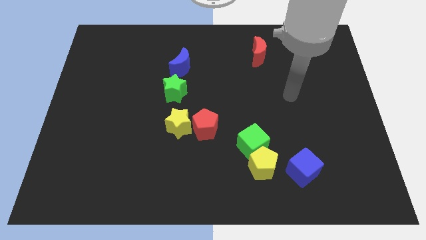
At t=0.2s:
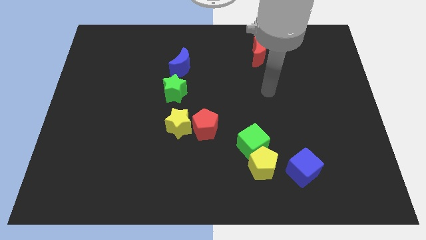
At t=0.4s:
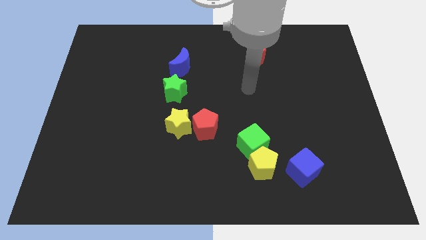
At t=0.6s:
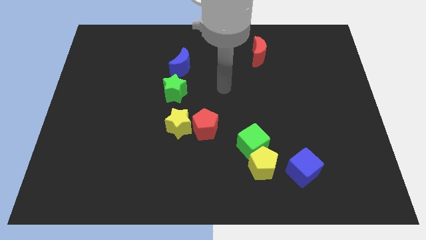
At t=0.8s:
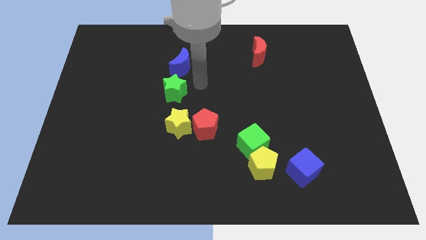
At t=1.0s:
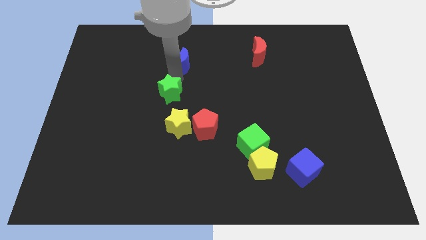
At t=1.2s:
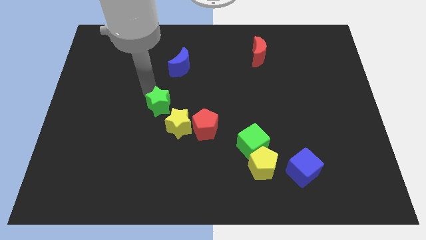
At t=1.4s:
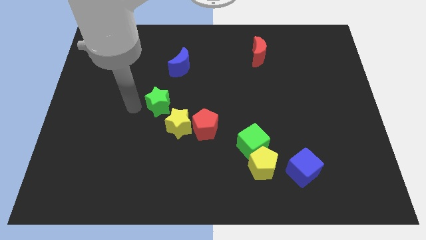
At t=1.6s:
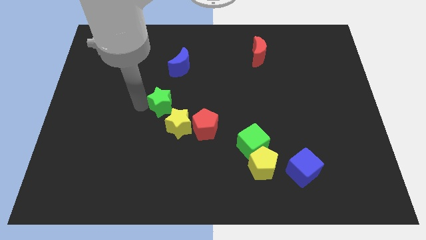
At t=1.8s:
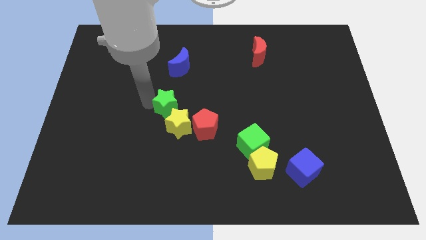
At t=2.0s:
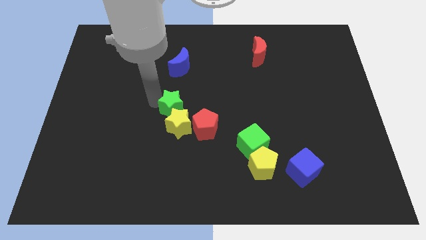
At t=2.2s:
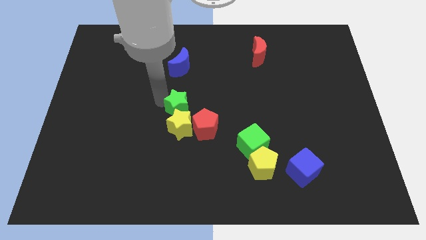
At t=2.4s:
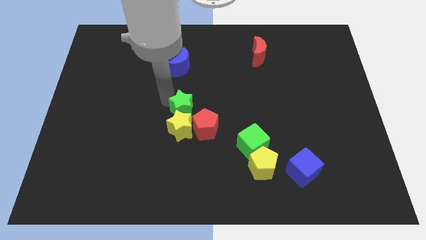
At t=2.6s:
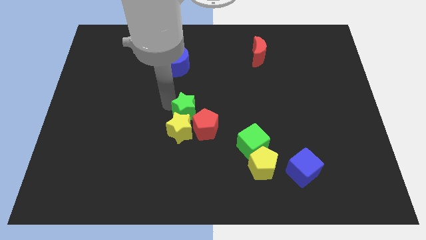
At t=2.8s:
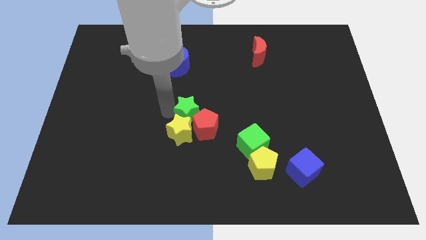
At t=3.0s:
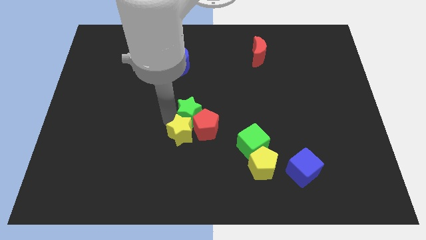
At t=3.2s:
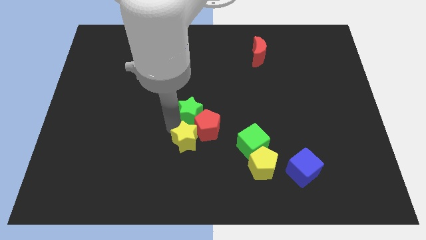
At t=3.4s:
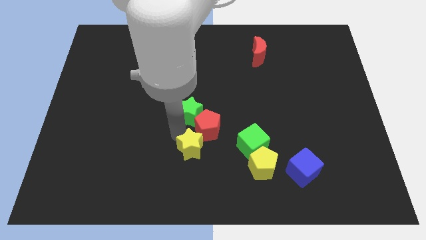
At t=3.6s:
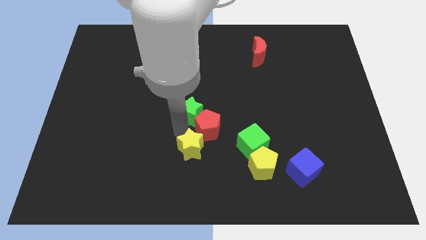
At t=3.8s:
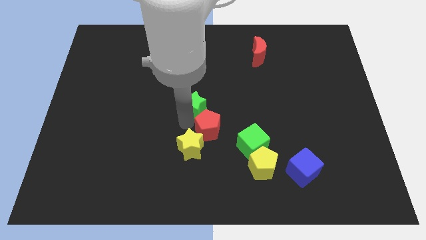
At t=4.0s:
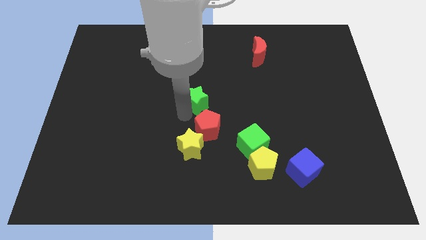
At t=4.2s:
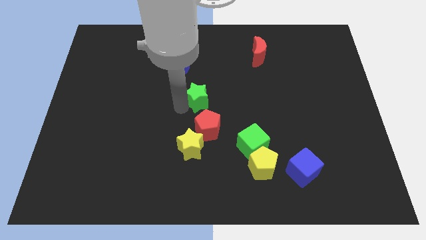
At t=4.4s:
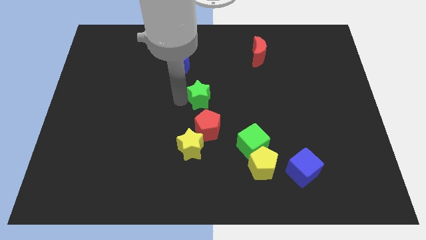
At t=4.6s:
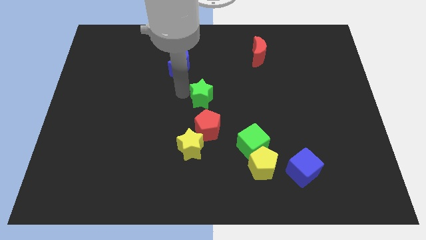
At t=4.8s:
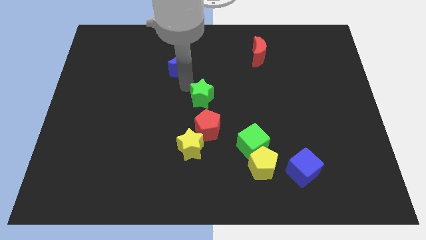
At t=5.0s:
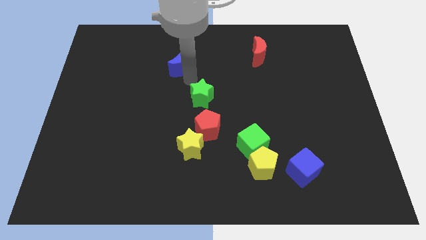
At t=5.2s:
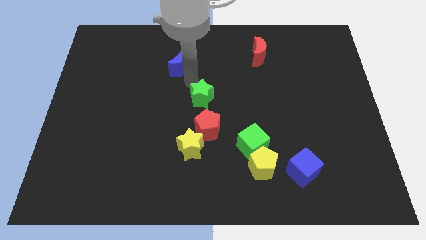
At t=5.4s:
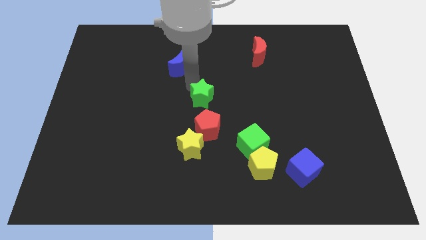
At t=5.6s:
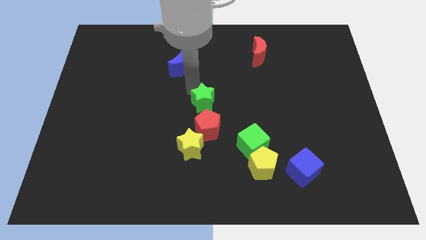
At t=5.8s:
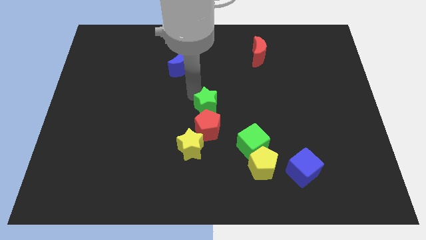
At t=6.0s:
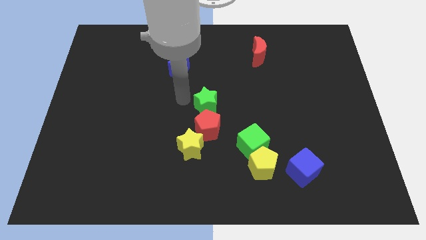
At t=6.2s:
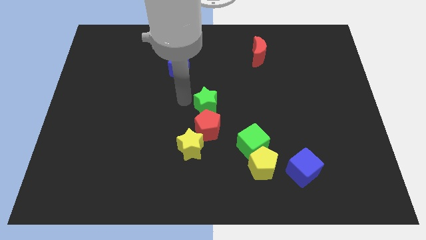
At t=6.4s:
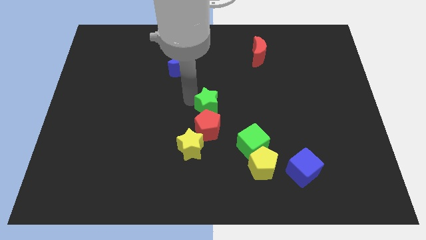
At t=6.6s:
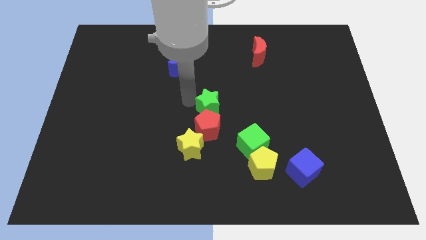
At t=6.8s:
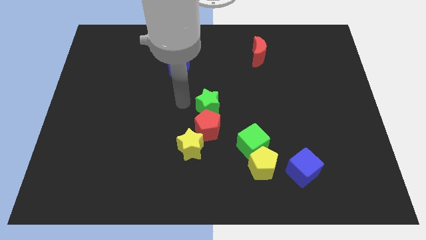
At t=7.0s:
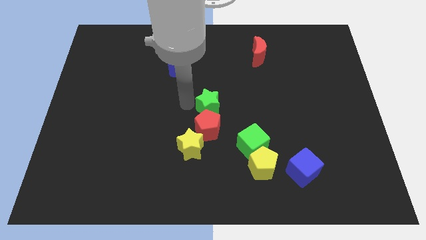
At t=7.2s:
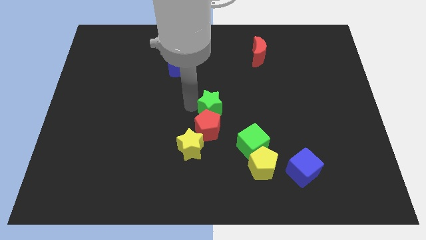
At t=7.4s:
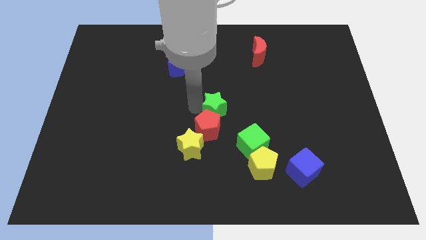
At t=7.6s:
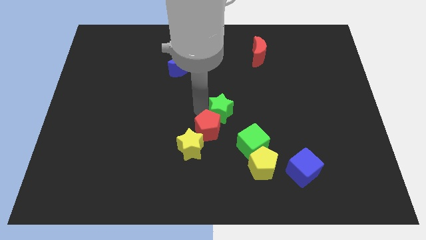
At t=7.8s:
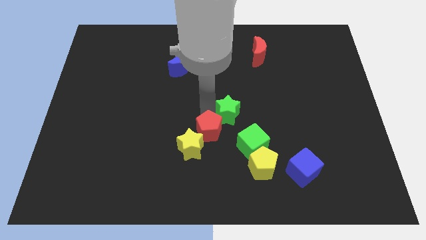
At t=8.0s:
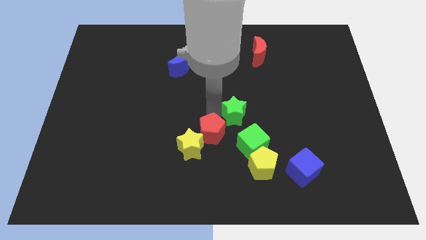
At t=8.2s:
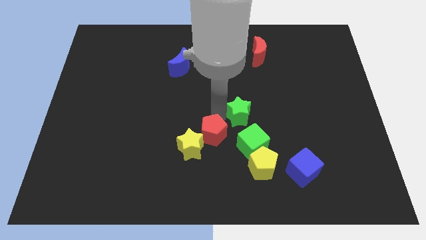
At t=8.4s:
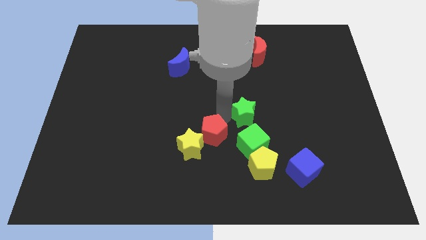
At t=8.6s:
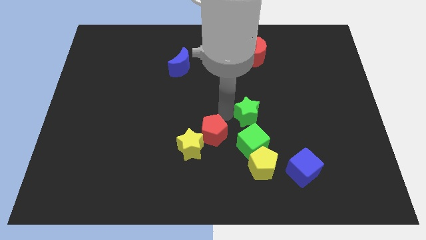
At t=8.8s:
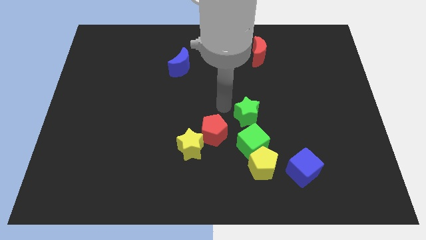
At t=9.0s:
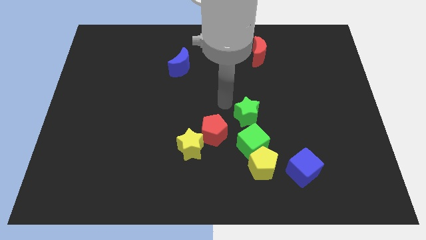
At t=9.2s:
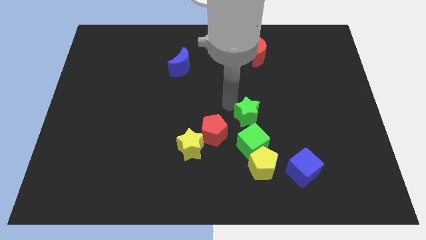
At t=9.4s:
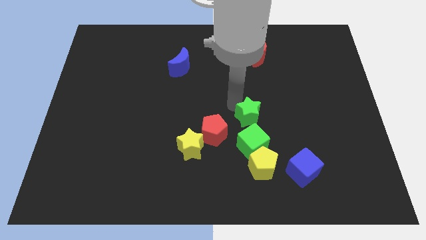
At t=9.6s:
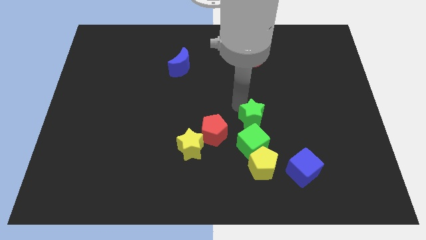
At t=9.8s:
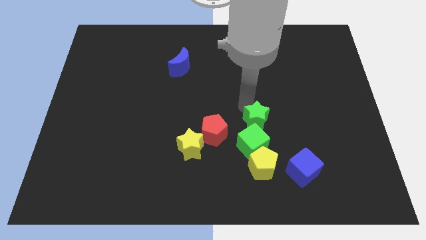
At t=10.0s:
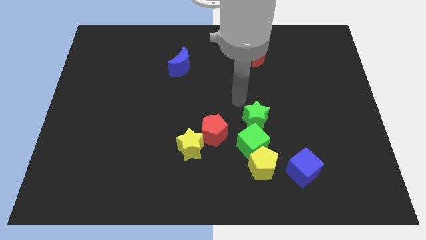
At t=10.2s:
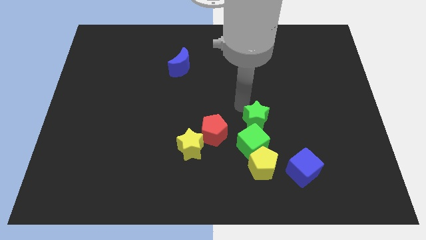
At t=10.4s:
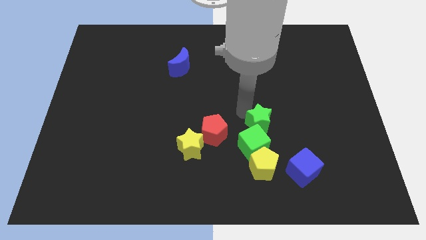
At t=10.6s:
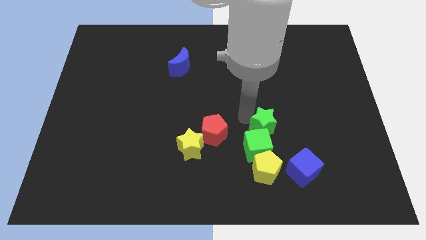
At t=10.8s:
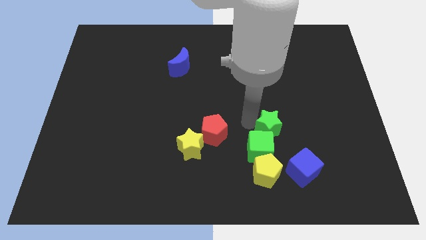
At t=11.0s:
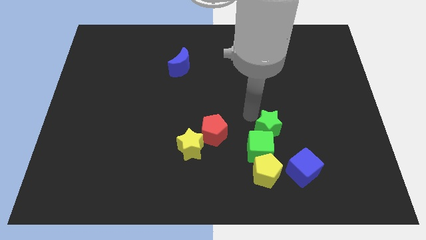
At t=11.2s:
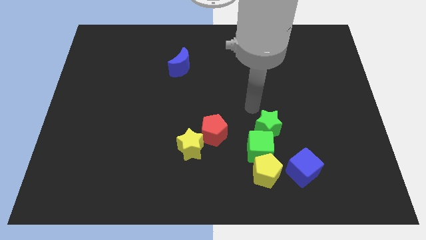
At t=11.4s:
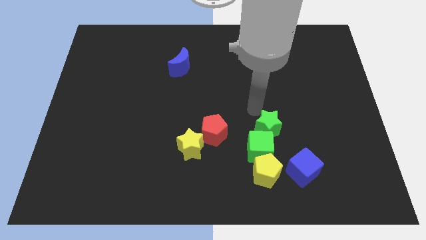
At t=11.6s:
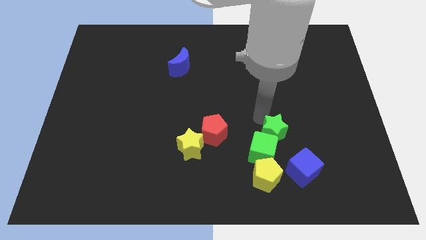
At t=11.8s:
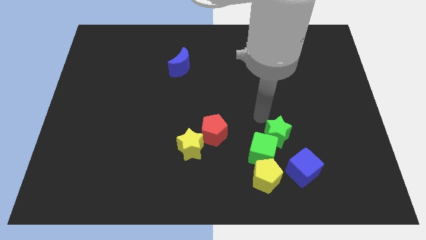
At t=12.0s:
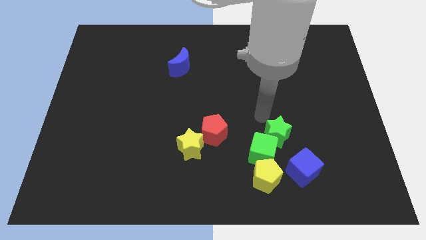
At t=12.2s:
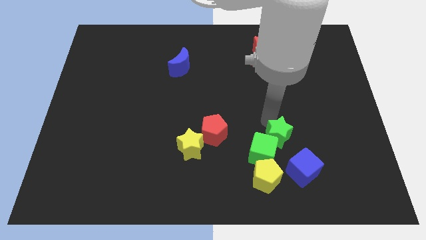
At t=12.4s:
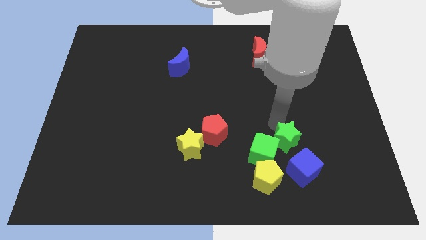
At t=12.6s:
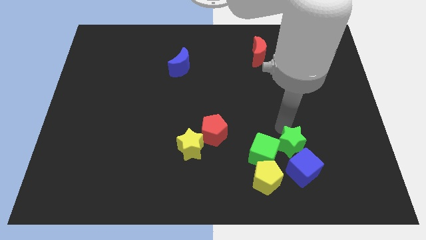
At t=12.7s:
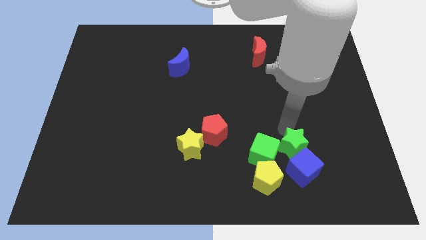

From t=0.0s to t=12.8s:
put the green star next to the blue cube

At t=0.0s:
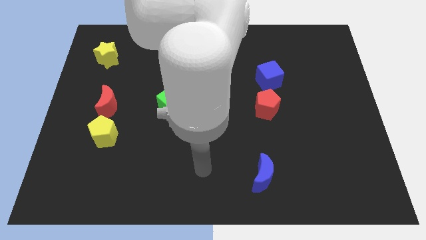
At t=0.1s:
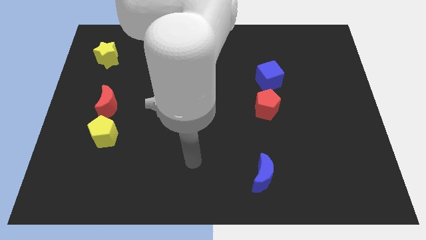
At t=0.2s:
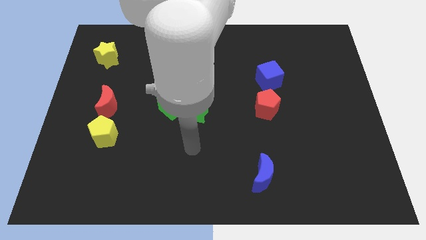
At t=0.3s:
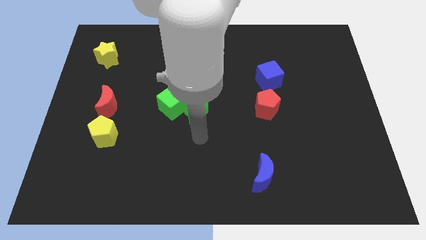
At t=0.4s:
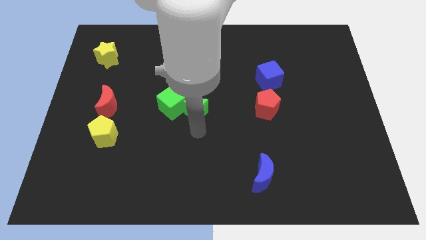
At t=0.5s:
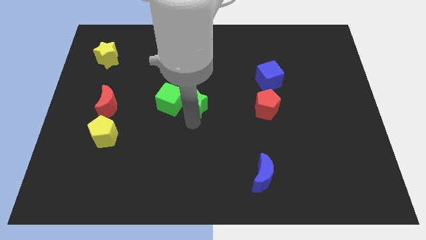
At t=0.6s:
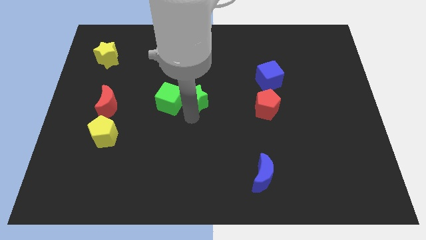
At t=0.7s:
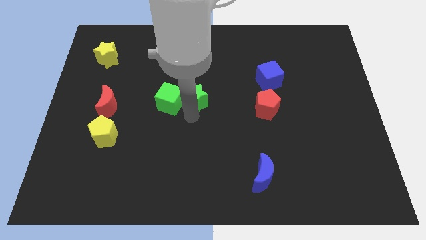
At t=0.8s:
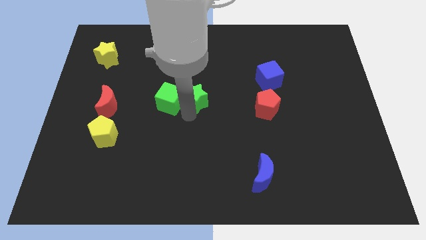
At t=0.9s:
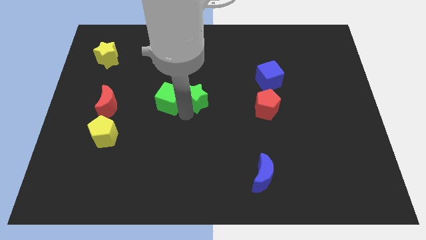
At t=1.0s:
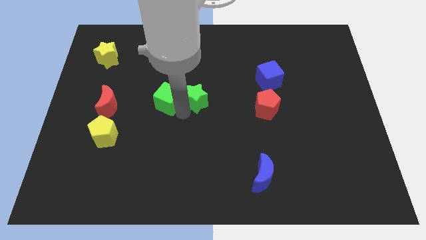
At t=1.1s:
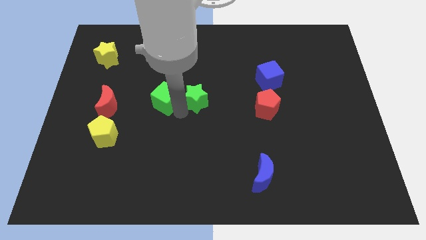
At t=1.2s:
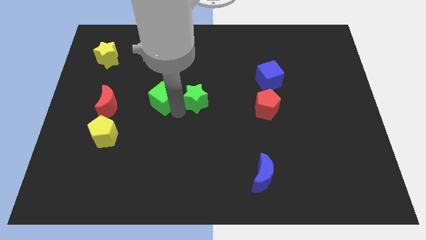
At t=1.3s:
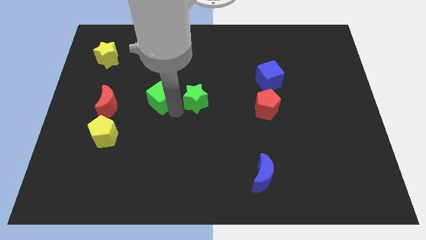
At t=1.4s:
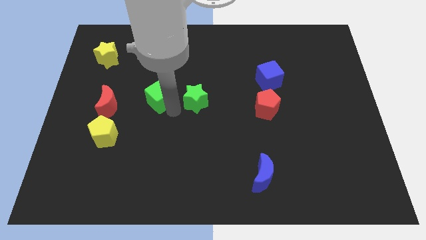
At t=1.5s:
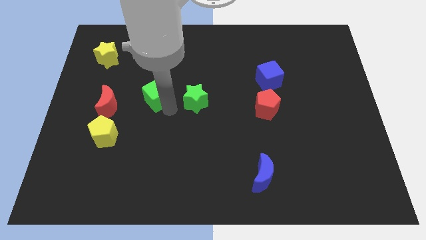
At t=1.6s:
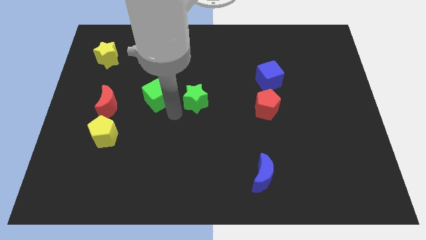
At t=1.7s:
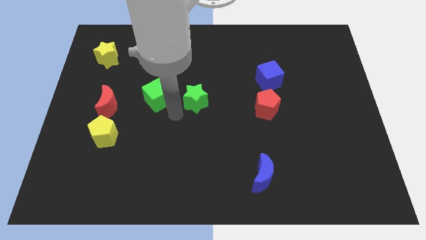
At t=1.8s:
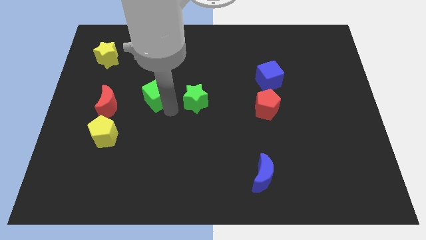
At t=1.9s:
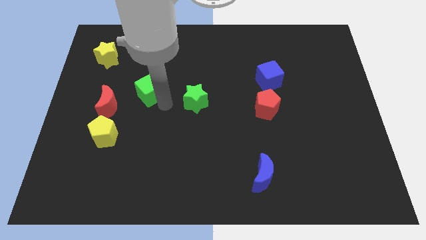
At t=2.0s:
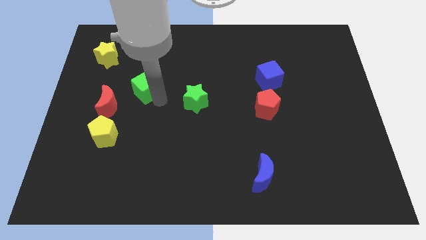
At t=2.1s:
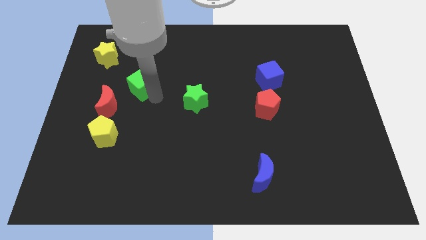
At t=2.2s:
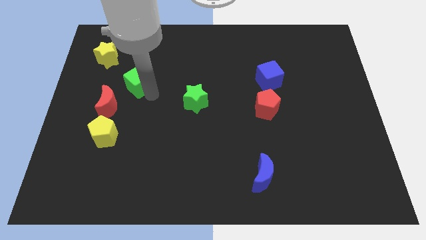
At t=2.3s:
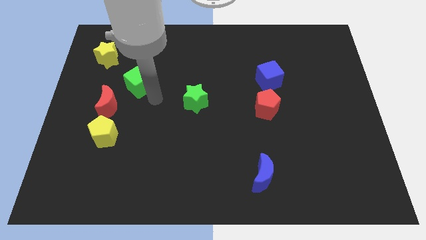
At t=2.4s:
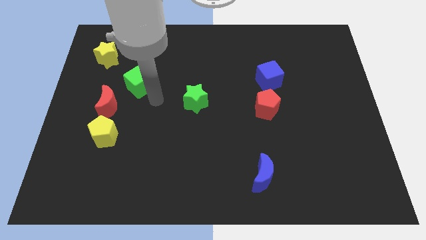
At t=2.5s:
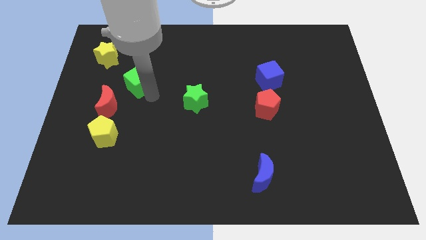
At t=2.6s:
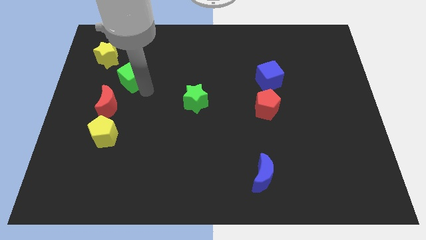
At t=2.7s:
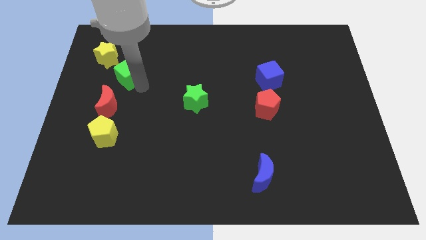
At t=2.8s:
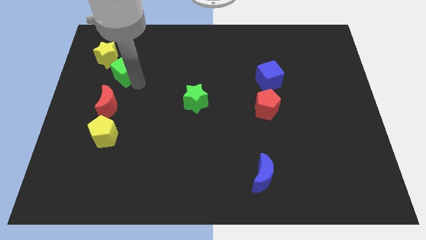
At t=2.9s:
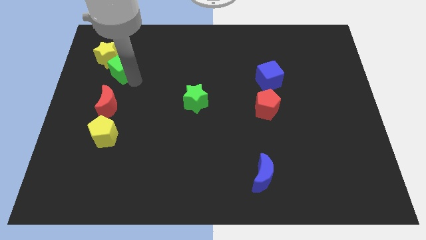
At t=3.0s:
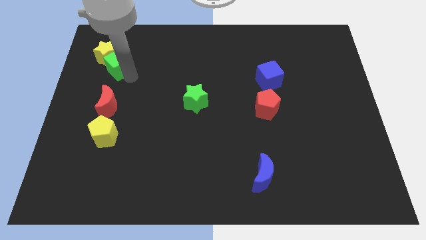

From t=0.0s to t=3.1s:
move the green cube close to the yellow star
